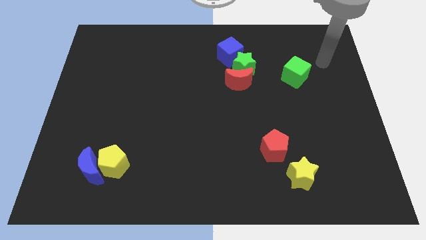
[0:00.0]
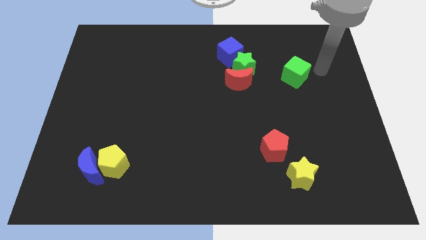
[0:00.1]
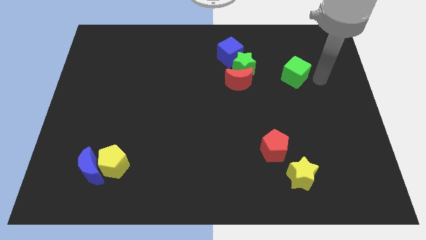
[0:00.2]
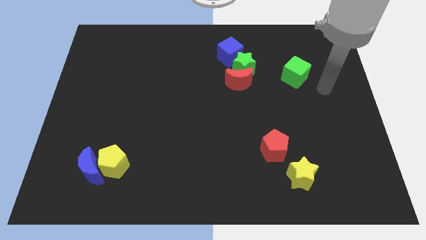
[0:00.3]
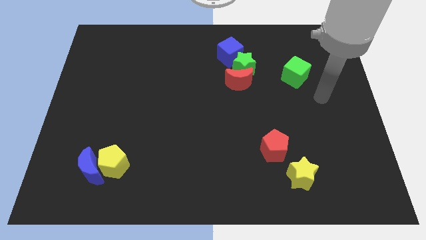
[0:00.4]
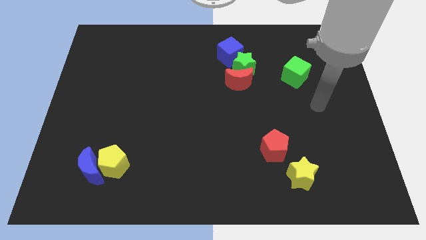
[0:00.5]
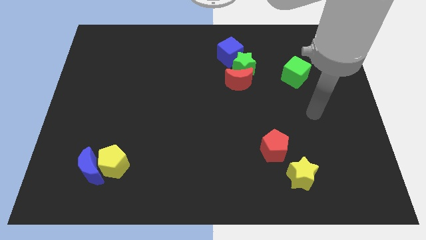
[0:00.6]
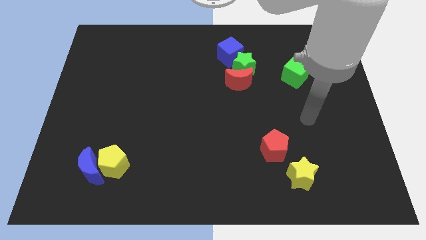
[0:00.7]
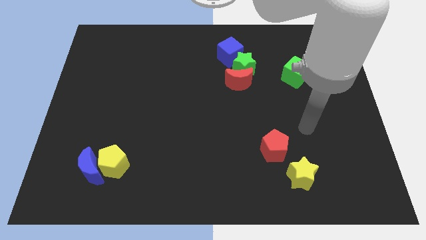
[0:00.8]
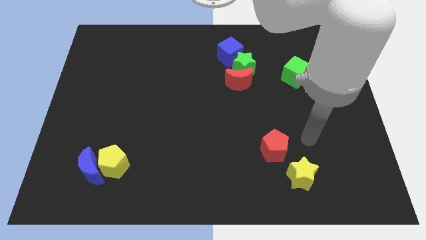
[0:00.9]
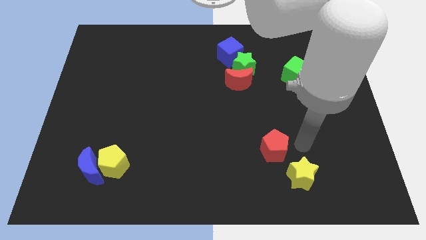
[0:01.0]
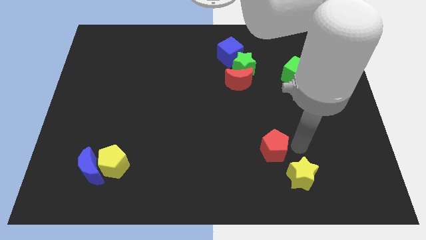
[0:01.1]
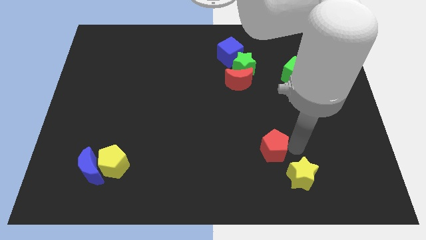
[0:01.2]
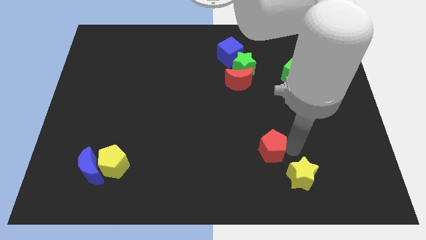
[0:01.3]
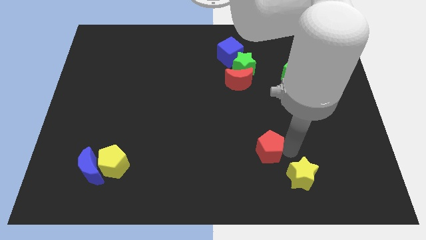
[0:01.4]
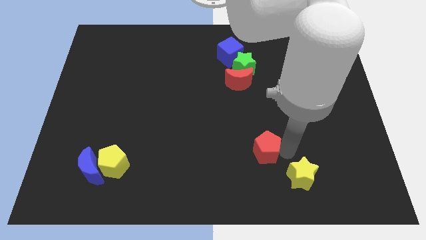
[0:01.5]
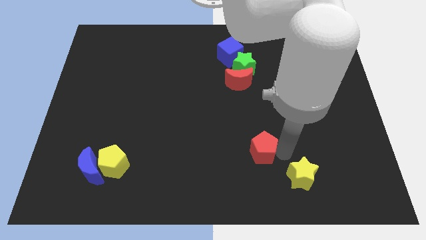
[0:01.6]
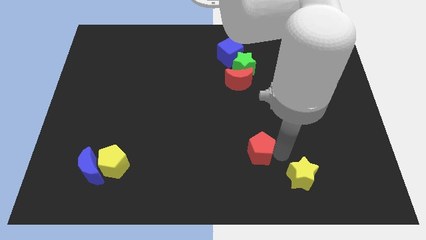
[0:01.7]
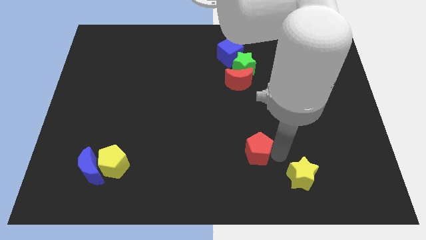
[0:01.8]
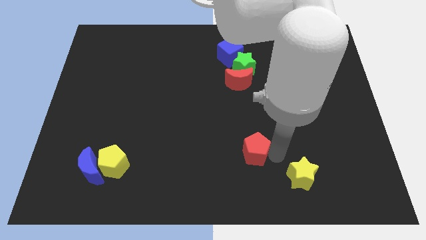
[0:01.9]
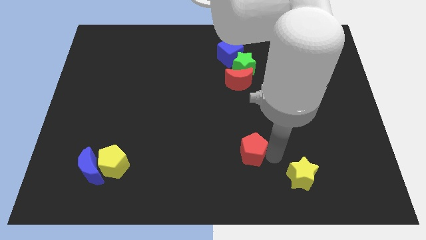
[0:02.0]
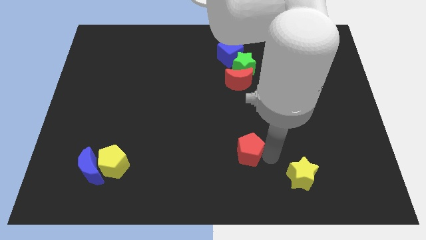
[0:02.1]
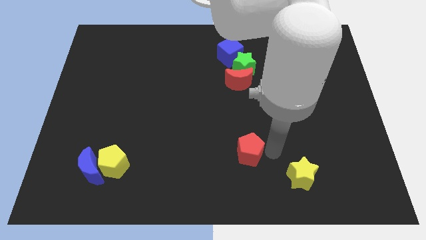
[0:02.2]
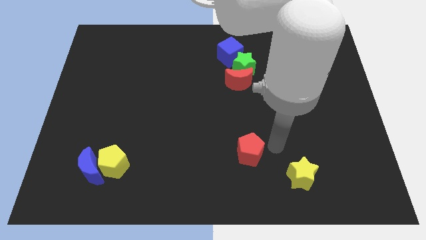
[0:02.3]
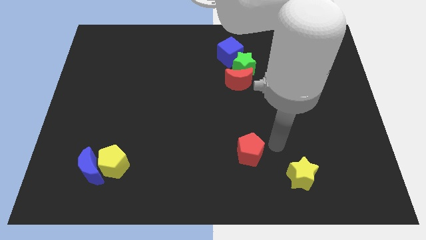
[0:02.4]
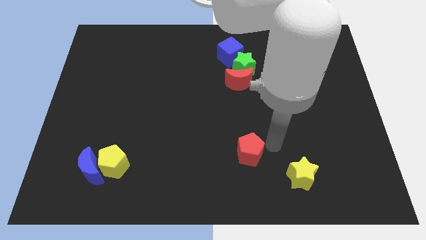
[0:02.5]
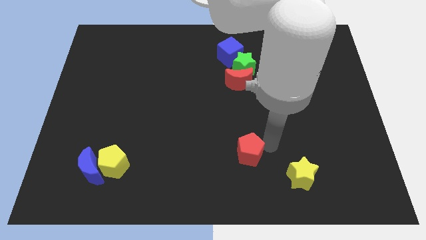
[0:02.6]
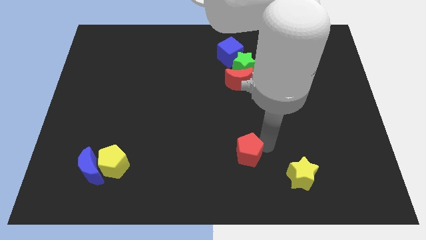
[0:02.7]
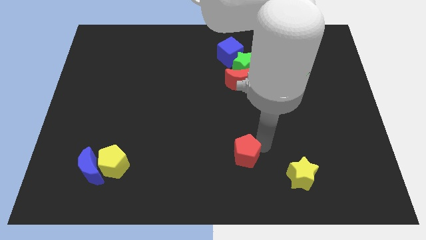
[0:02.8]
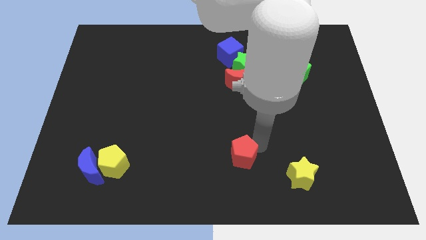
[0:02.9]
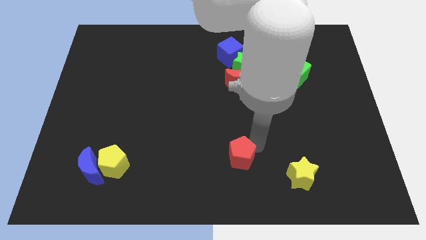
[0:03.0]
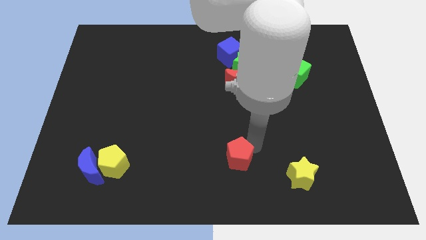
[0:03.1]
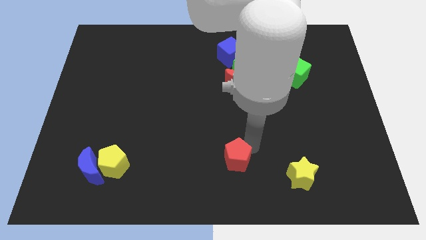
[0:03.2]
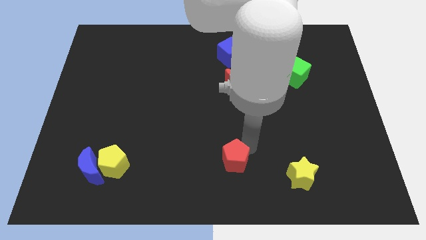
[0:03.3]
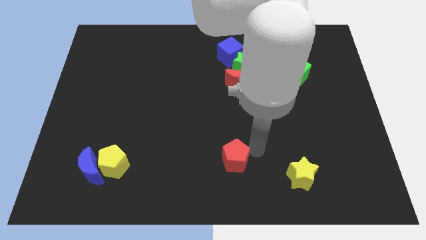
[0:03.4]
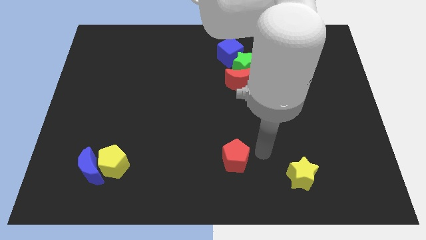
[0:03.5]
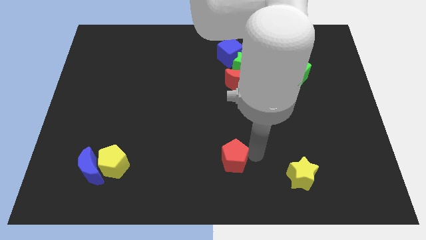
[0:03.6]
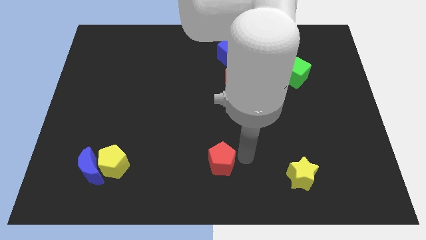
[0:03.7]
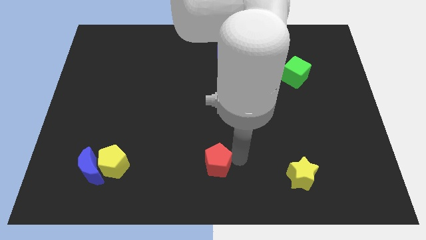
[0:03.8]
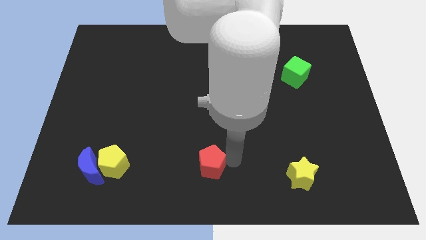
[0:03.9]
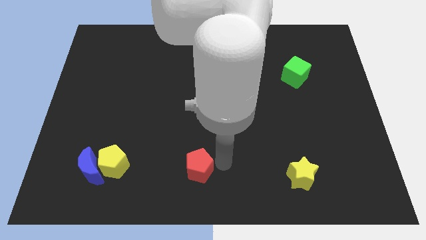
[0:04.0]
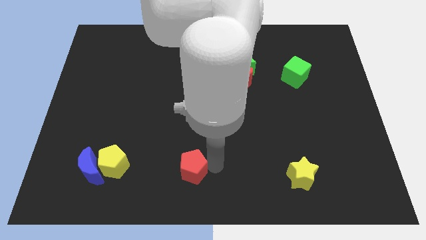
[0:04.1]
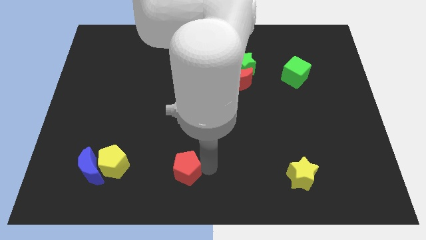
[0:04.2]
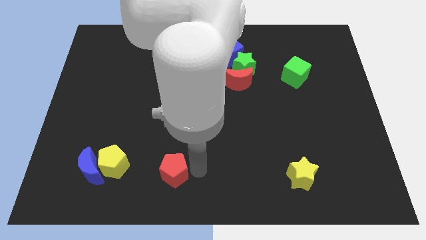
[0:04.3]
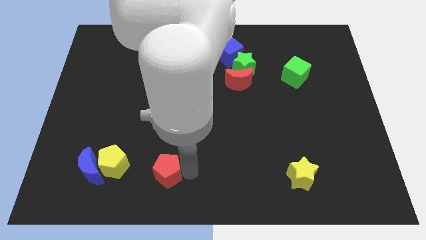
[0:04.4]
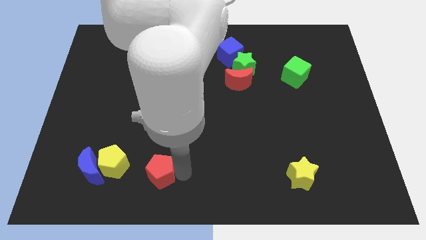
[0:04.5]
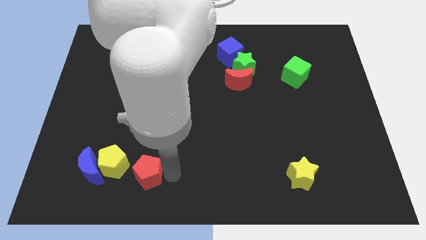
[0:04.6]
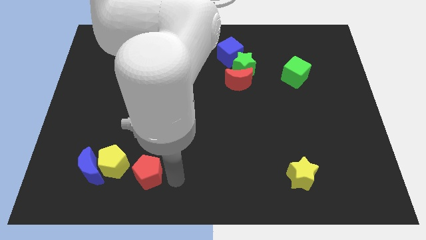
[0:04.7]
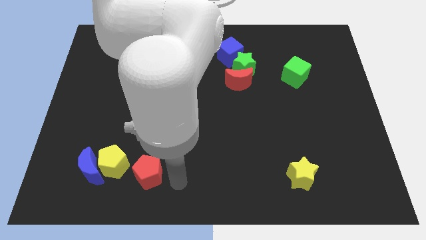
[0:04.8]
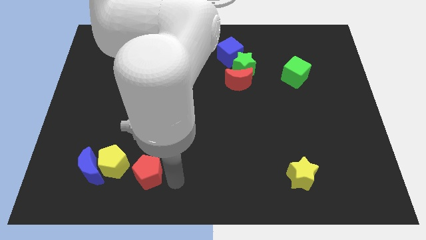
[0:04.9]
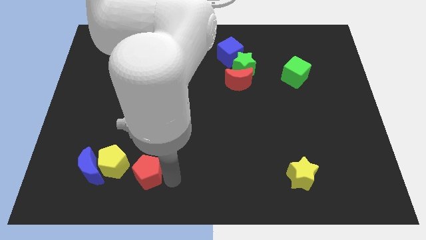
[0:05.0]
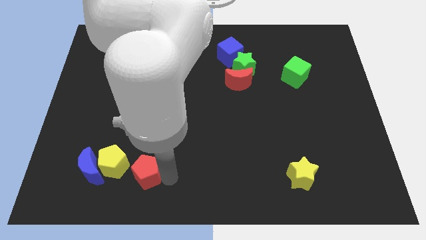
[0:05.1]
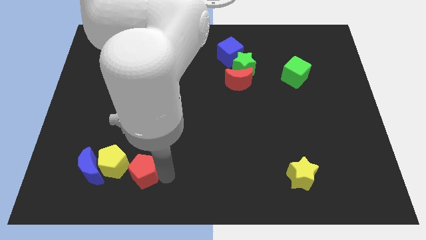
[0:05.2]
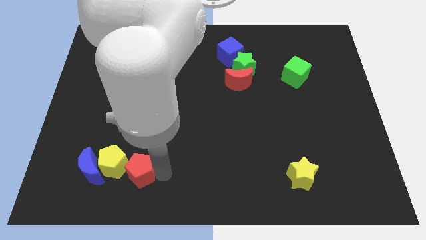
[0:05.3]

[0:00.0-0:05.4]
put the red pentagon next to the yellow pentagon
